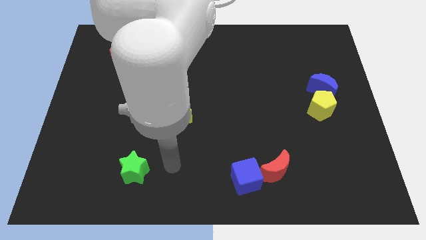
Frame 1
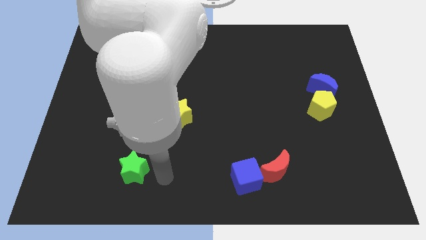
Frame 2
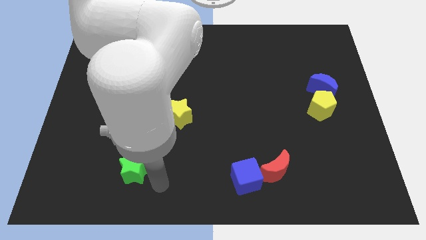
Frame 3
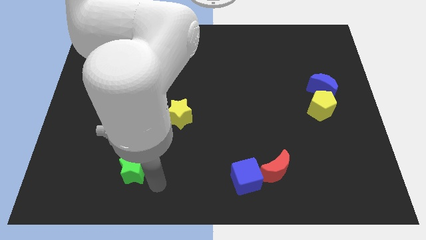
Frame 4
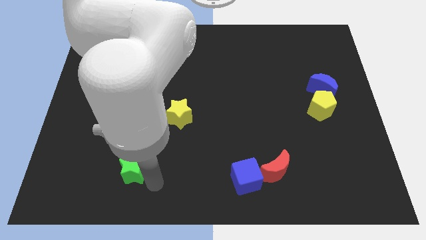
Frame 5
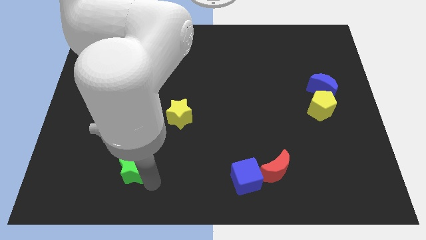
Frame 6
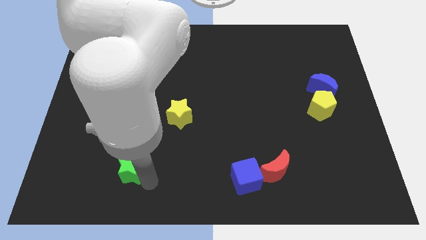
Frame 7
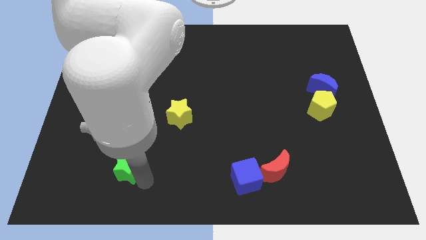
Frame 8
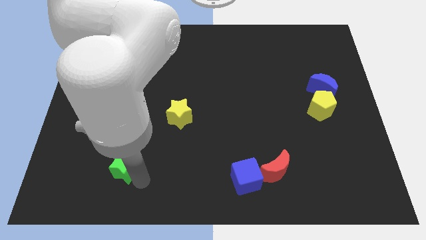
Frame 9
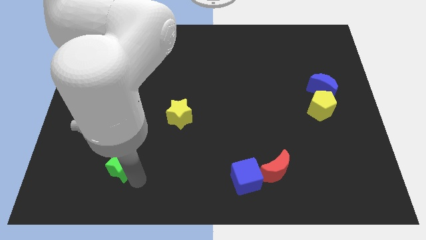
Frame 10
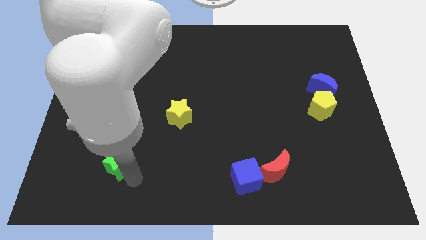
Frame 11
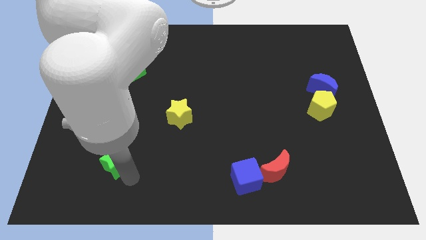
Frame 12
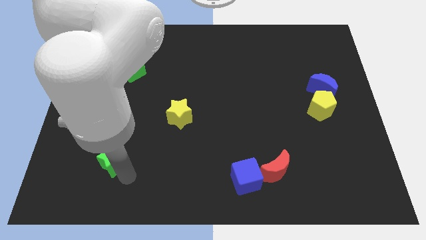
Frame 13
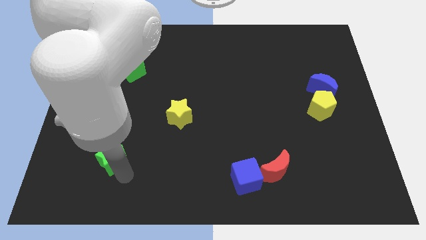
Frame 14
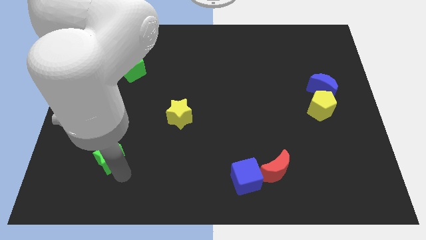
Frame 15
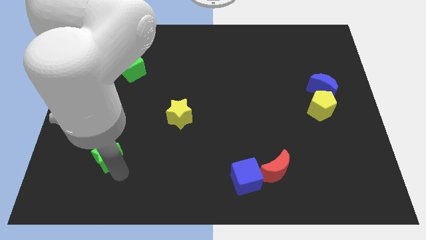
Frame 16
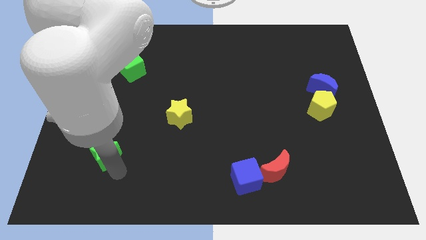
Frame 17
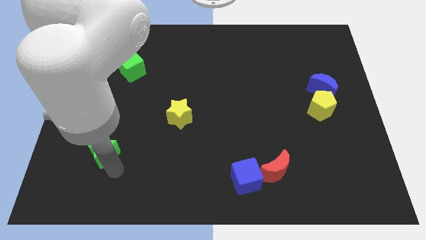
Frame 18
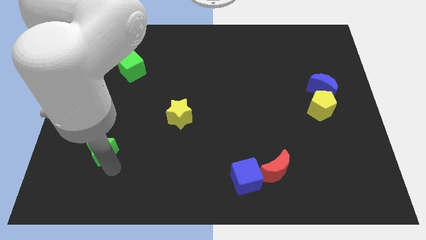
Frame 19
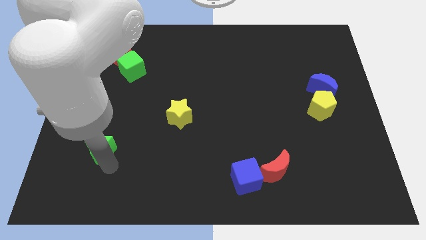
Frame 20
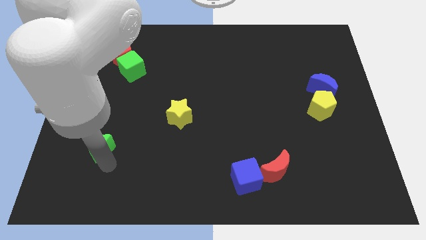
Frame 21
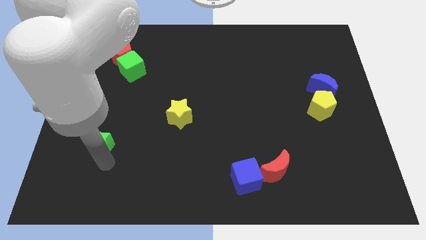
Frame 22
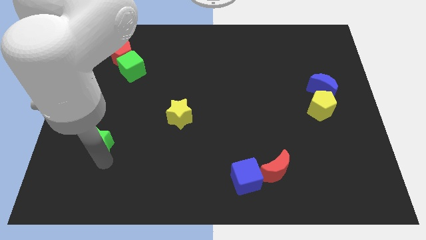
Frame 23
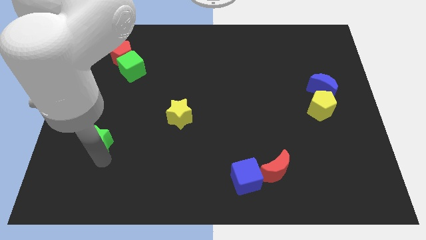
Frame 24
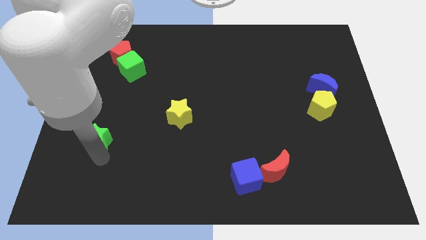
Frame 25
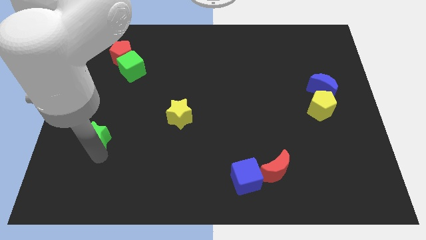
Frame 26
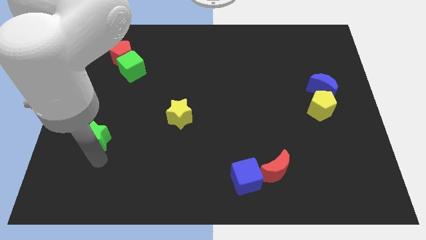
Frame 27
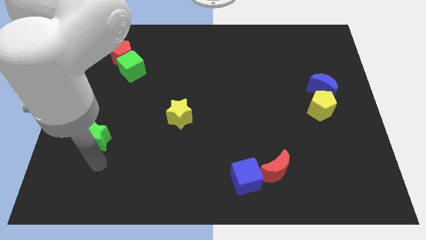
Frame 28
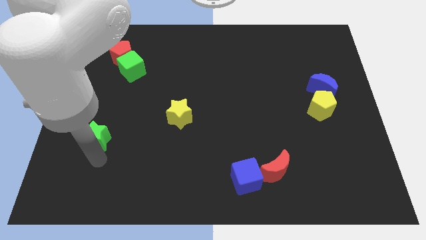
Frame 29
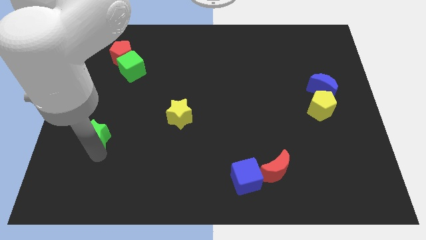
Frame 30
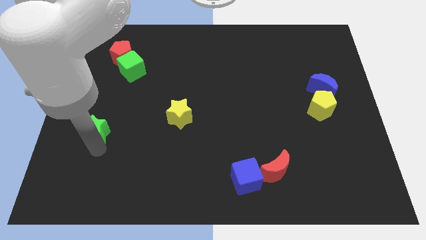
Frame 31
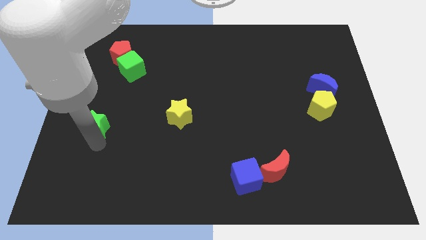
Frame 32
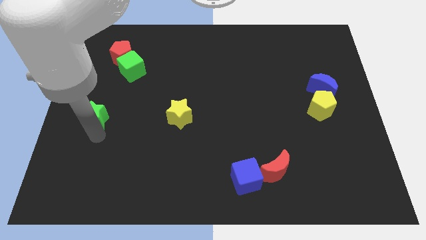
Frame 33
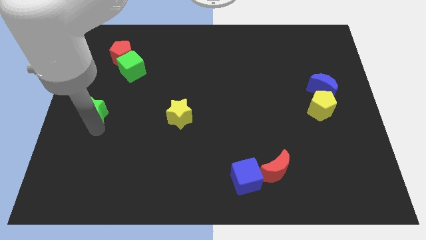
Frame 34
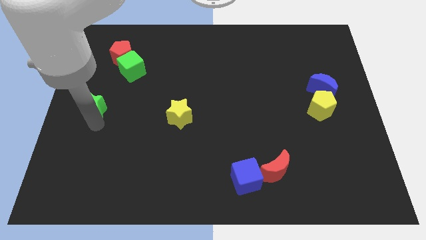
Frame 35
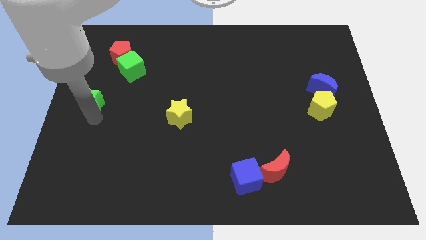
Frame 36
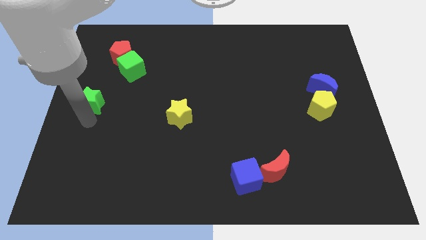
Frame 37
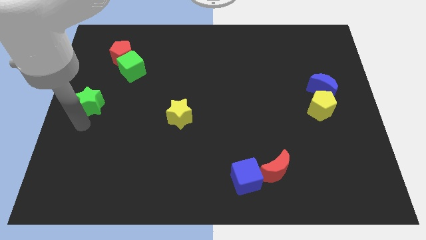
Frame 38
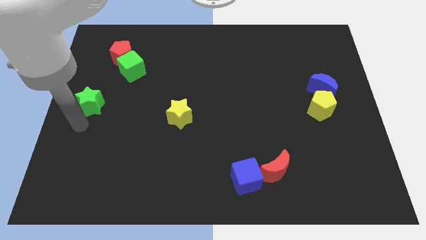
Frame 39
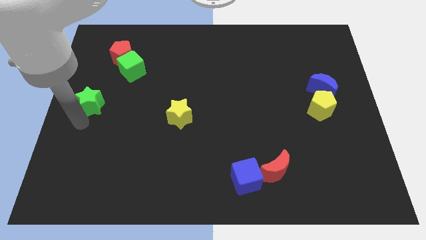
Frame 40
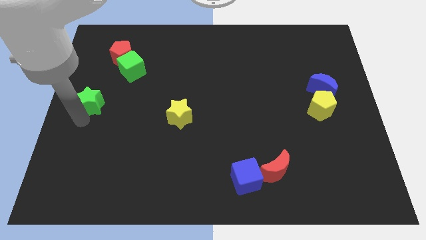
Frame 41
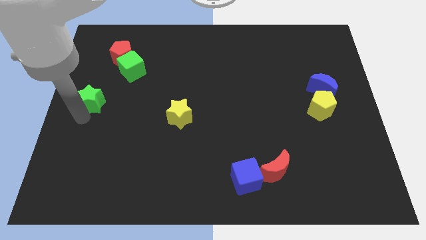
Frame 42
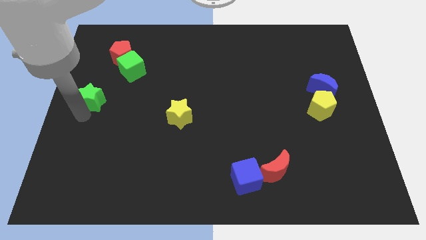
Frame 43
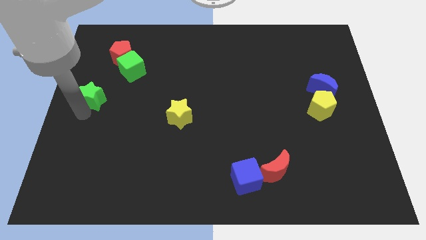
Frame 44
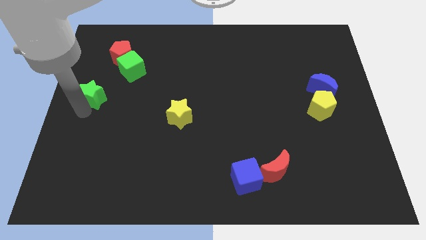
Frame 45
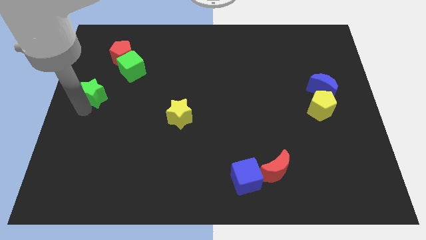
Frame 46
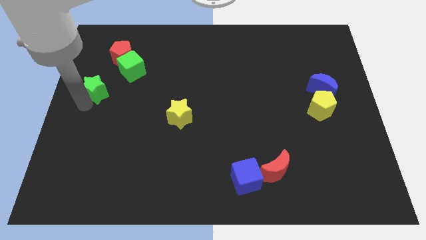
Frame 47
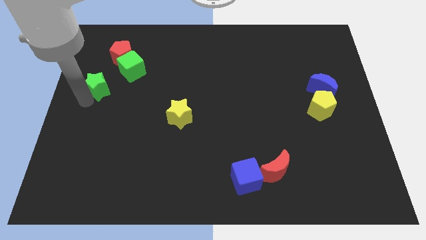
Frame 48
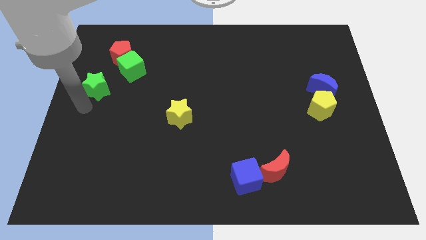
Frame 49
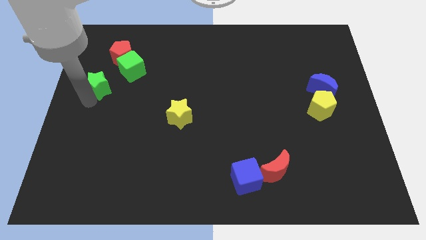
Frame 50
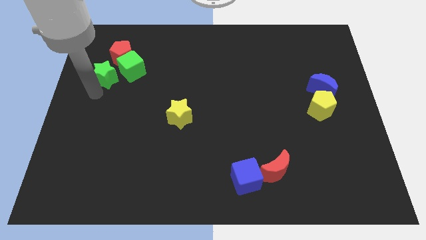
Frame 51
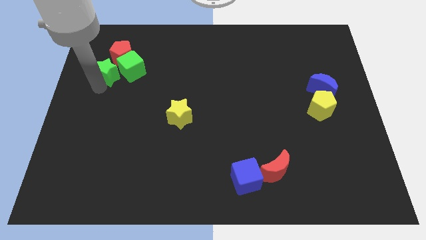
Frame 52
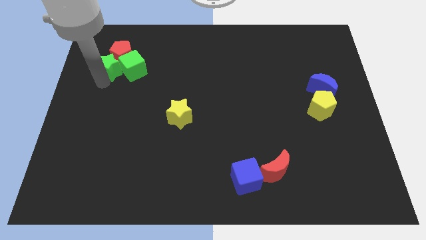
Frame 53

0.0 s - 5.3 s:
move the green star towards the red pentagon

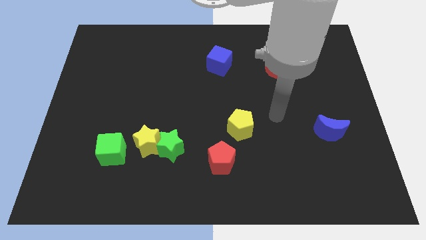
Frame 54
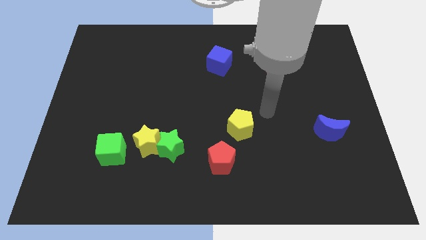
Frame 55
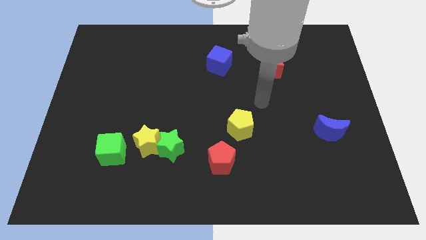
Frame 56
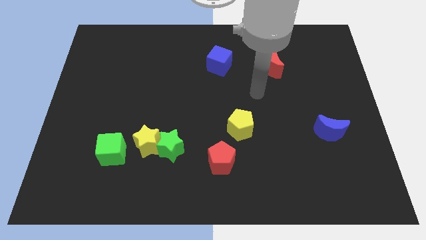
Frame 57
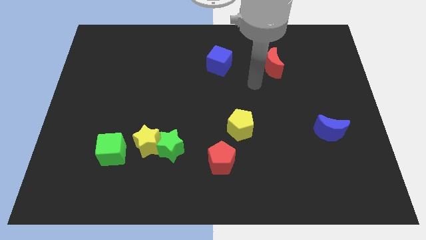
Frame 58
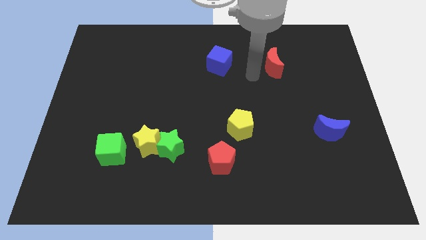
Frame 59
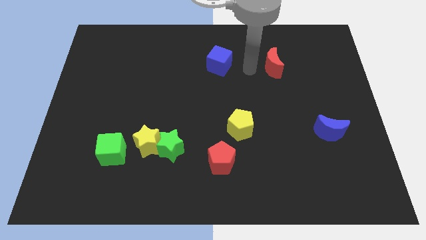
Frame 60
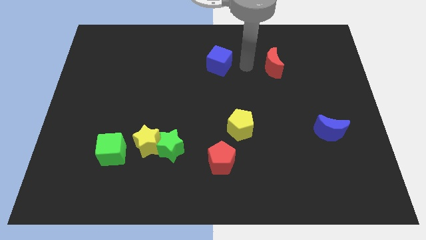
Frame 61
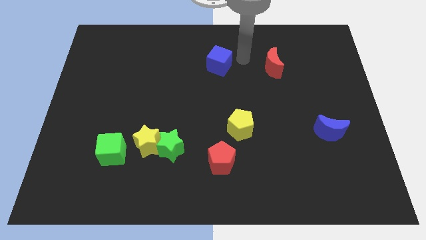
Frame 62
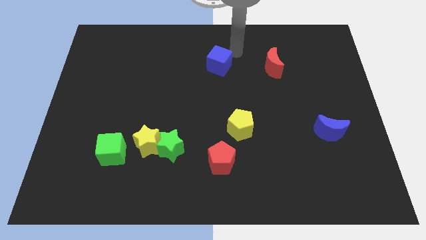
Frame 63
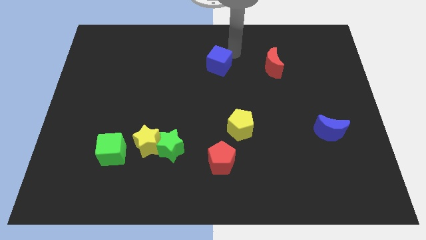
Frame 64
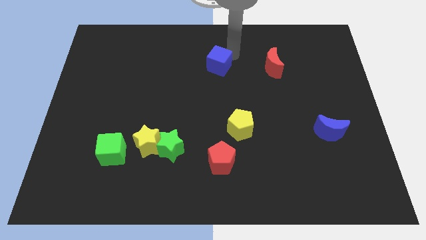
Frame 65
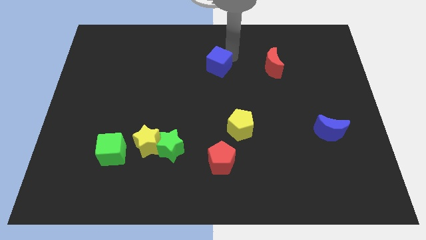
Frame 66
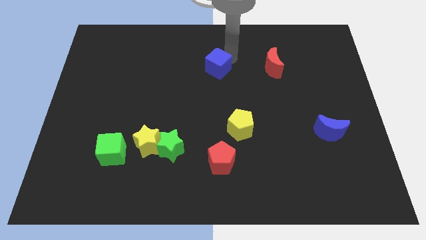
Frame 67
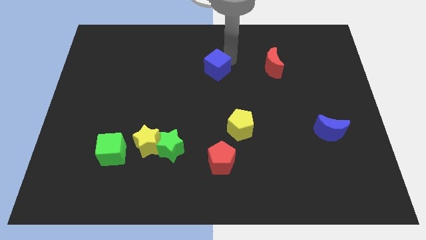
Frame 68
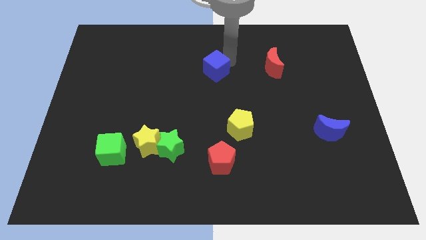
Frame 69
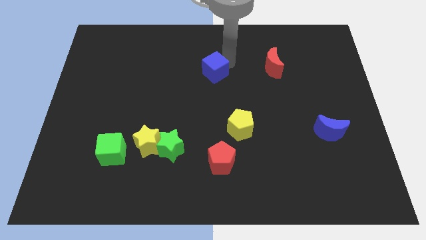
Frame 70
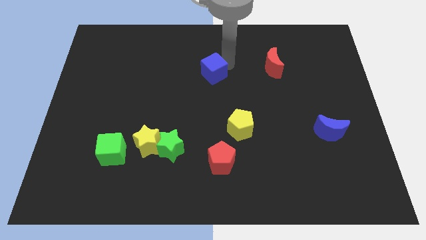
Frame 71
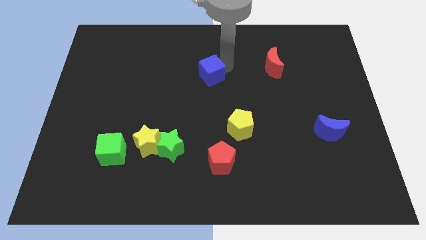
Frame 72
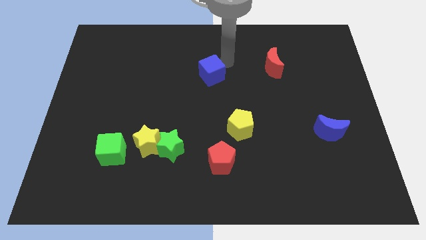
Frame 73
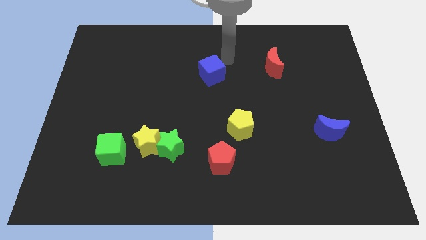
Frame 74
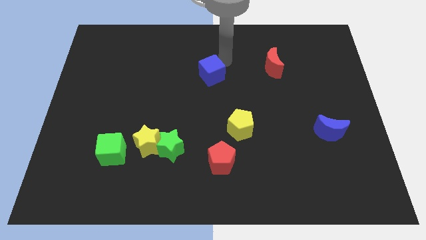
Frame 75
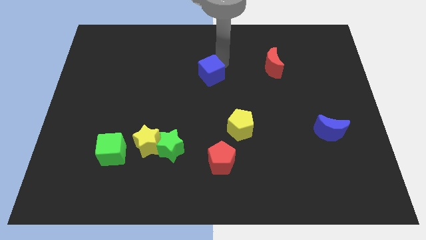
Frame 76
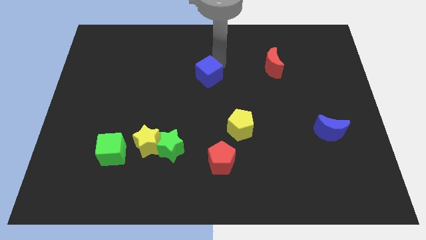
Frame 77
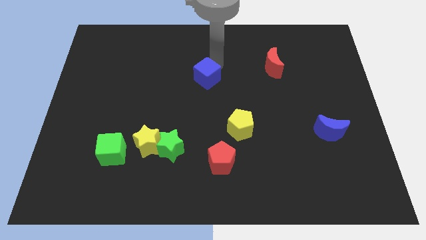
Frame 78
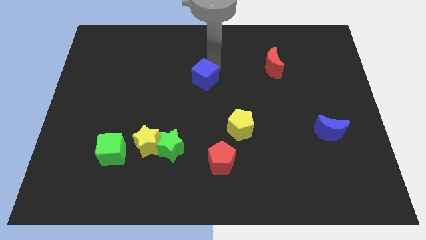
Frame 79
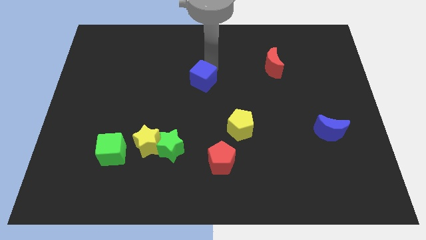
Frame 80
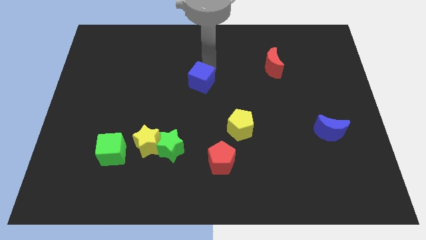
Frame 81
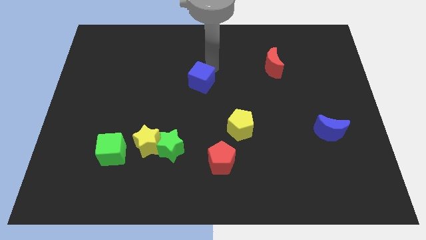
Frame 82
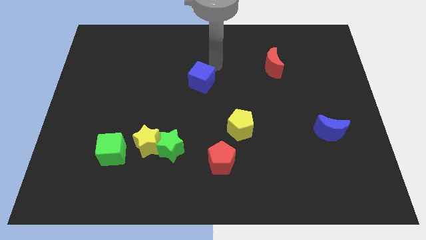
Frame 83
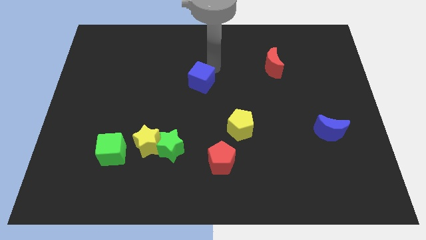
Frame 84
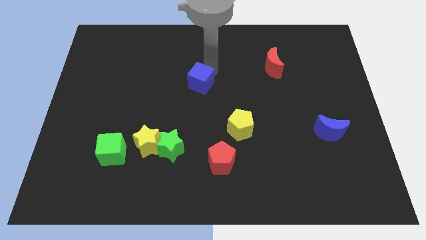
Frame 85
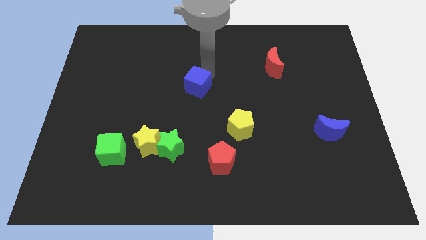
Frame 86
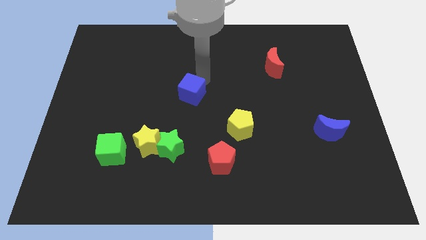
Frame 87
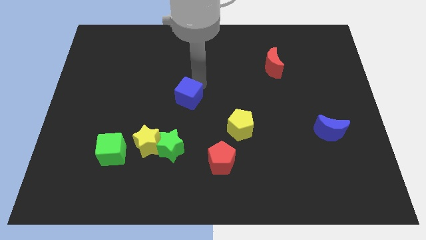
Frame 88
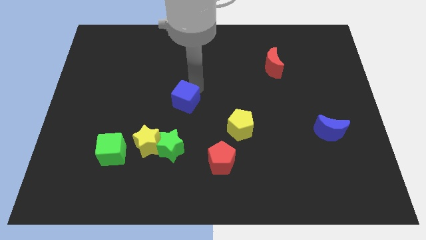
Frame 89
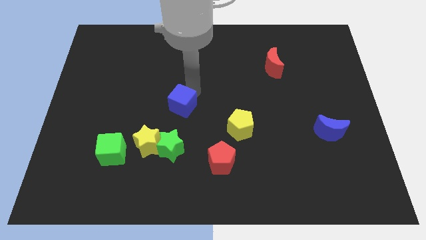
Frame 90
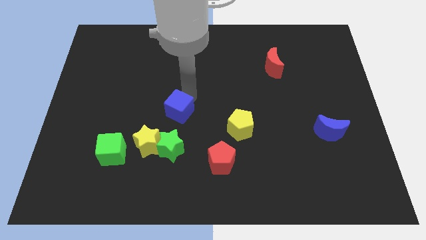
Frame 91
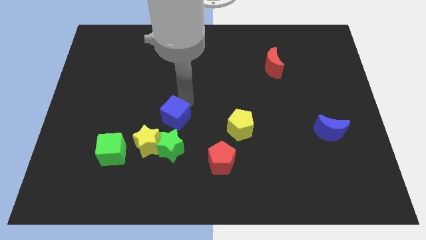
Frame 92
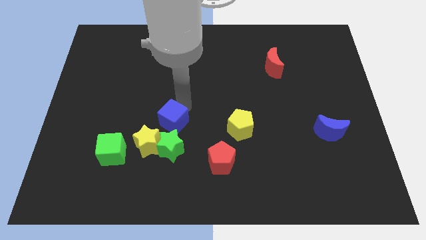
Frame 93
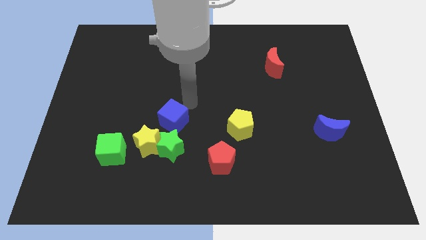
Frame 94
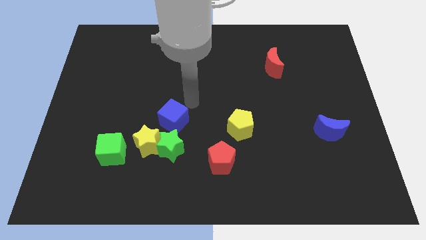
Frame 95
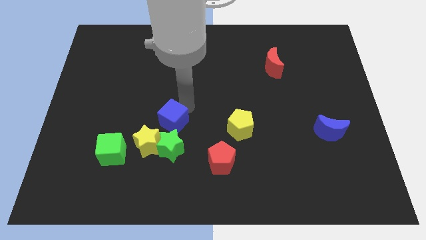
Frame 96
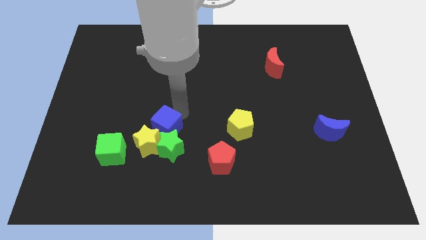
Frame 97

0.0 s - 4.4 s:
move the blue cube to the yellow star
